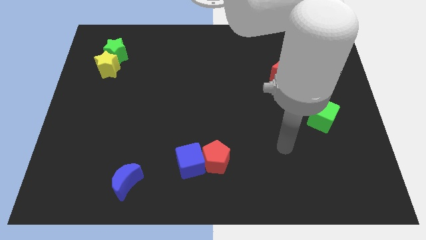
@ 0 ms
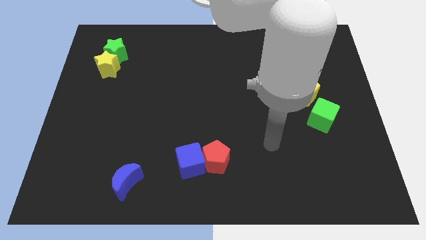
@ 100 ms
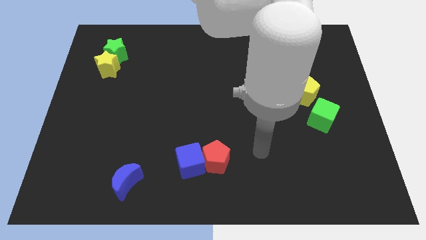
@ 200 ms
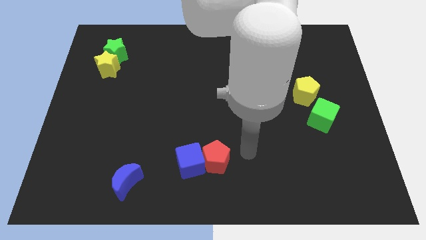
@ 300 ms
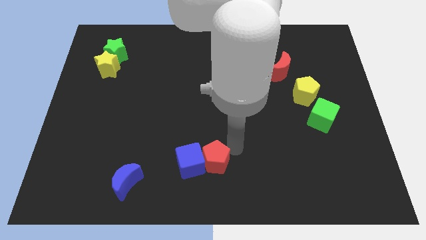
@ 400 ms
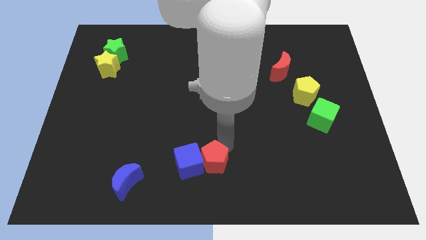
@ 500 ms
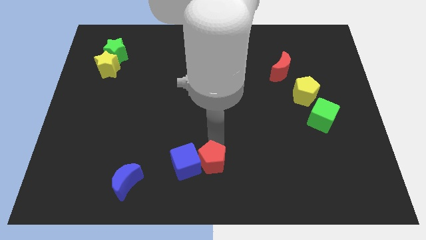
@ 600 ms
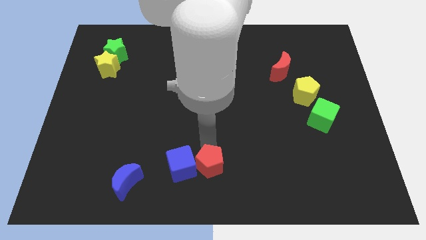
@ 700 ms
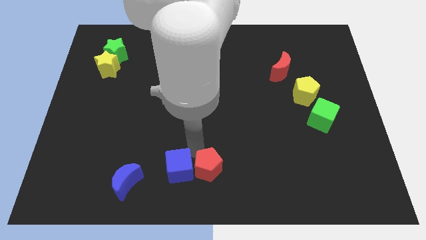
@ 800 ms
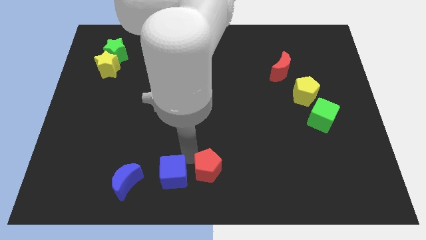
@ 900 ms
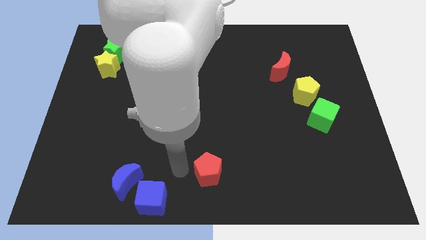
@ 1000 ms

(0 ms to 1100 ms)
separate the red pentagon from the blue cube

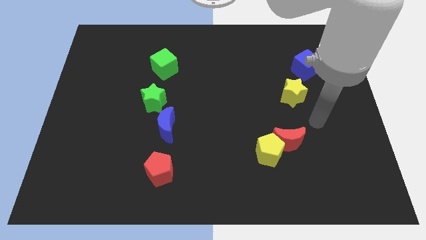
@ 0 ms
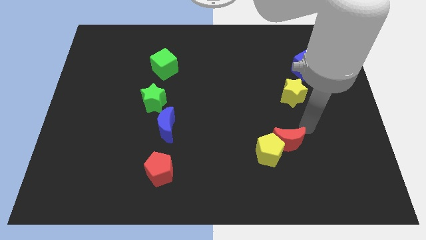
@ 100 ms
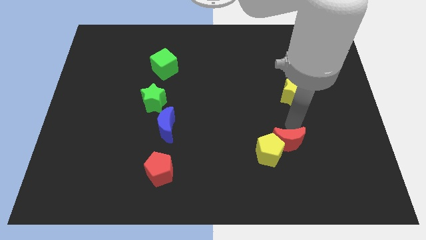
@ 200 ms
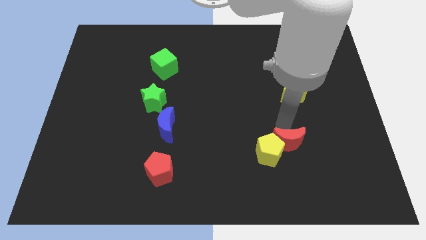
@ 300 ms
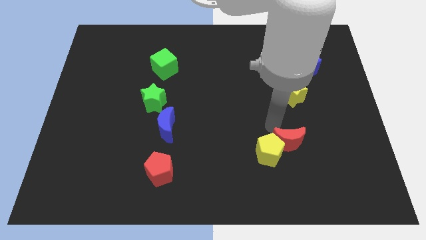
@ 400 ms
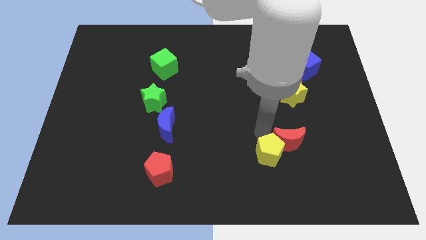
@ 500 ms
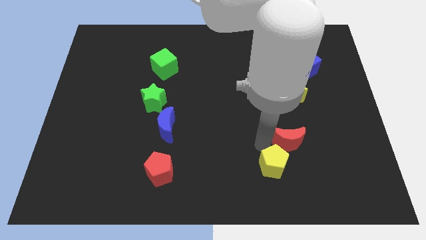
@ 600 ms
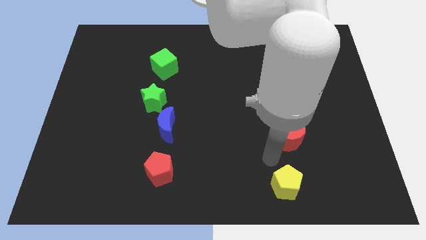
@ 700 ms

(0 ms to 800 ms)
separate the red moon from the yellow pentagon

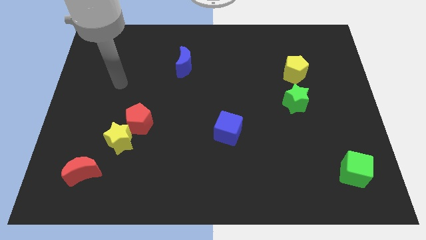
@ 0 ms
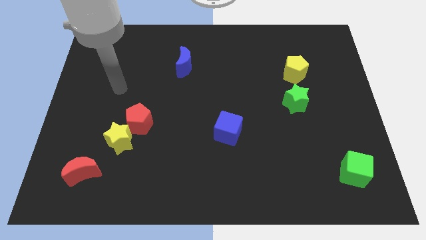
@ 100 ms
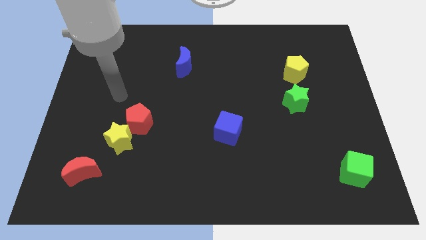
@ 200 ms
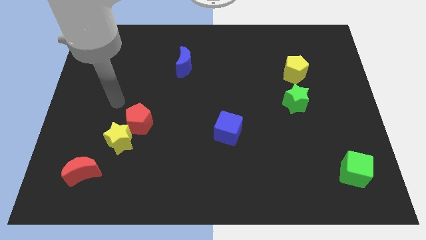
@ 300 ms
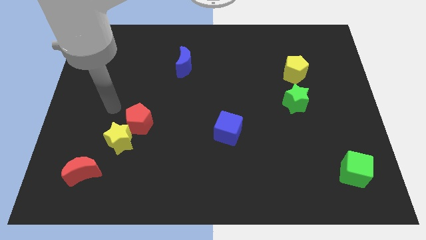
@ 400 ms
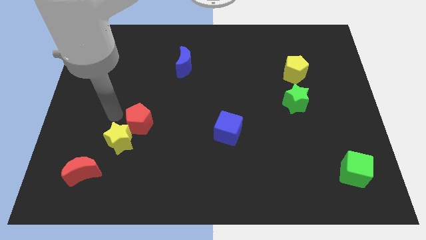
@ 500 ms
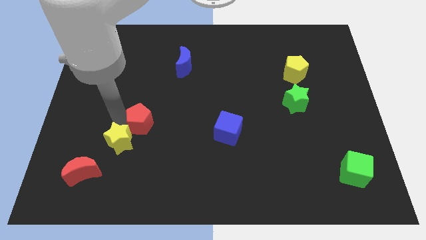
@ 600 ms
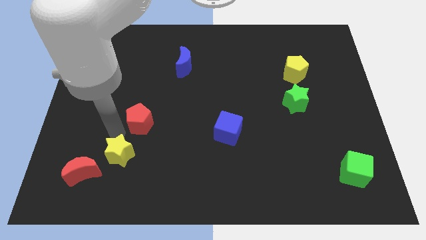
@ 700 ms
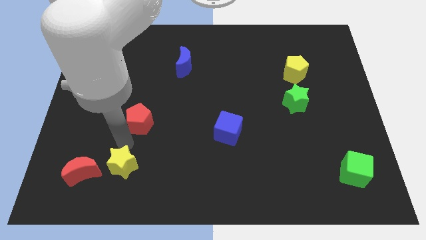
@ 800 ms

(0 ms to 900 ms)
pull the red pentagon apart from the yellow star

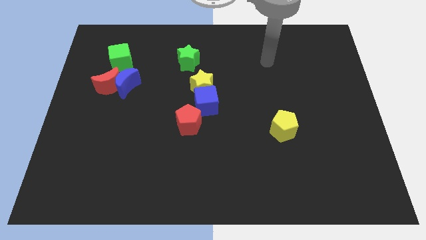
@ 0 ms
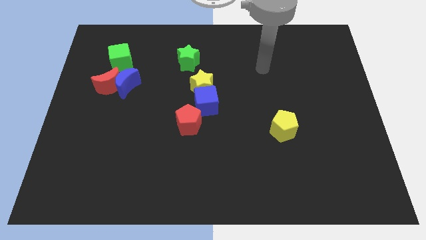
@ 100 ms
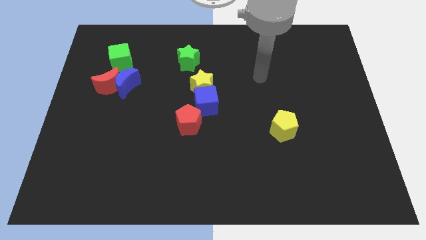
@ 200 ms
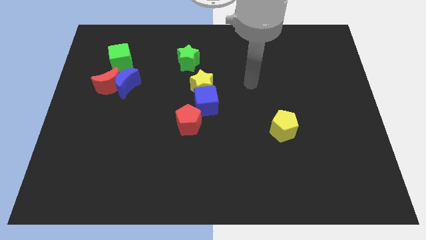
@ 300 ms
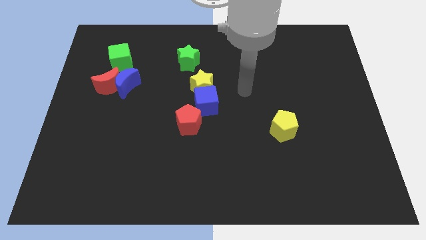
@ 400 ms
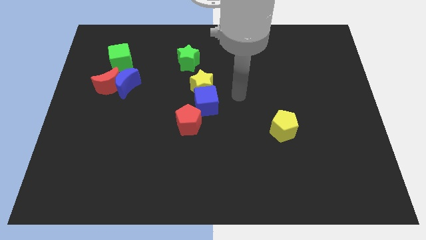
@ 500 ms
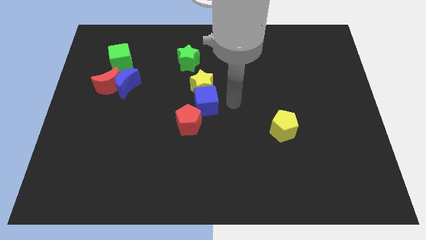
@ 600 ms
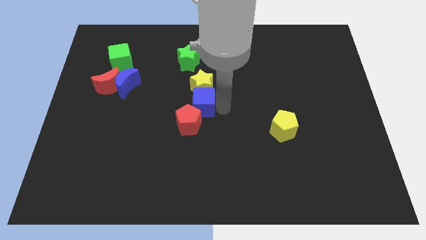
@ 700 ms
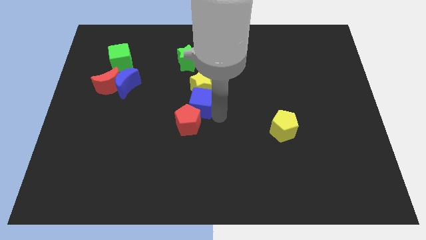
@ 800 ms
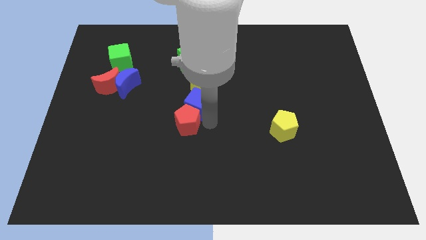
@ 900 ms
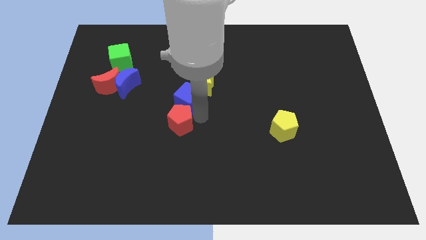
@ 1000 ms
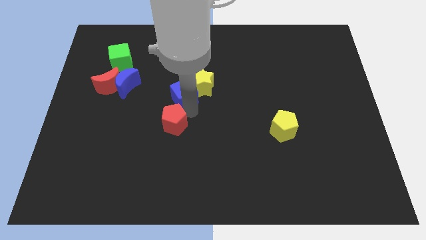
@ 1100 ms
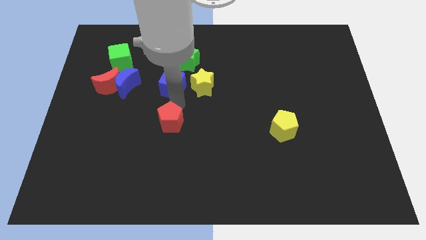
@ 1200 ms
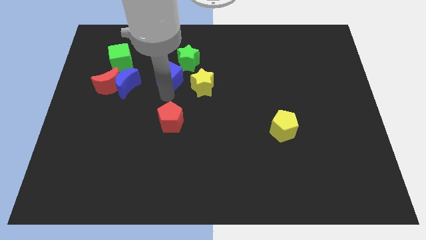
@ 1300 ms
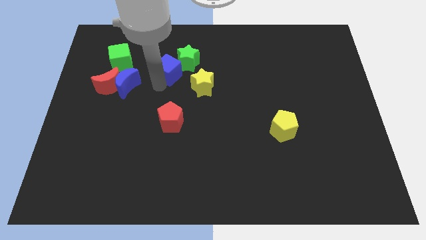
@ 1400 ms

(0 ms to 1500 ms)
pull the blue cube apart from the yellow star and red pentagon

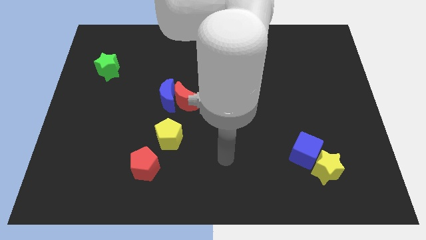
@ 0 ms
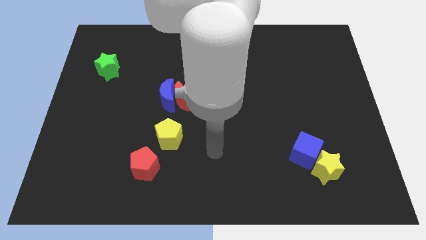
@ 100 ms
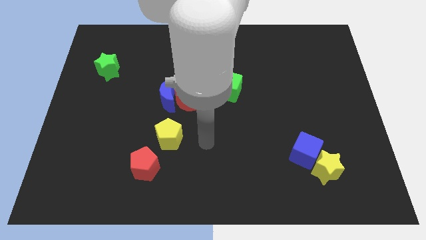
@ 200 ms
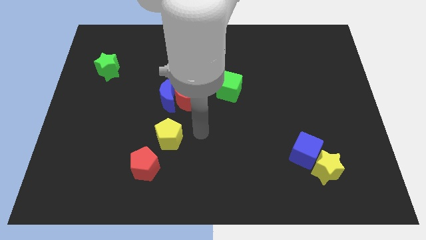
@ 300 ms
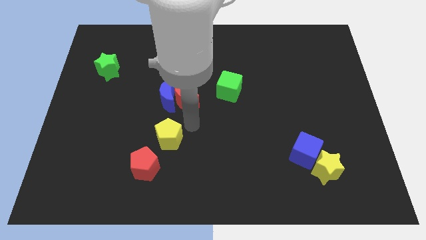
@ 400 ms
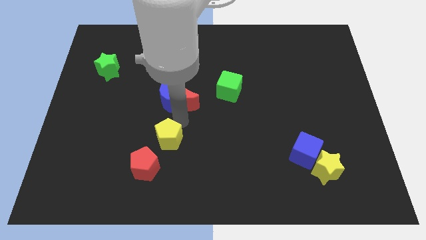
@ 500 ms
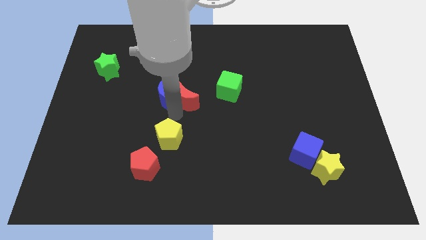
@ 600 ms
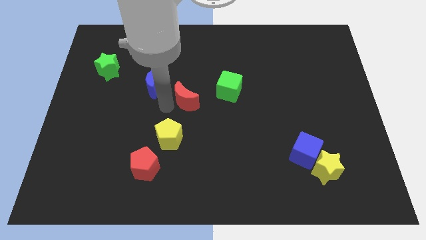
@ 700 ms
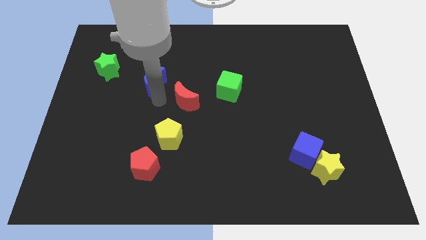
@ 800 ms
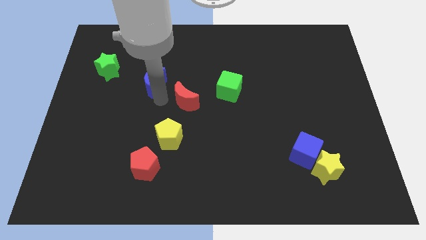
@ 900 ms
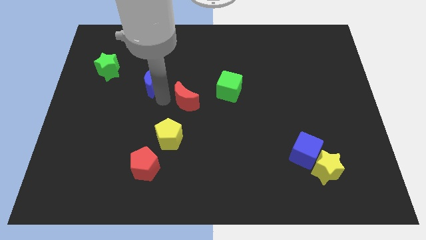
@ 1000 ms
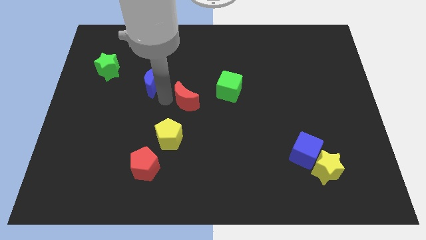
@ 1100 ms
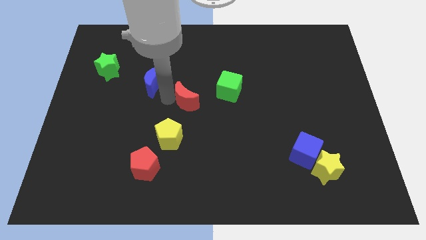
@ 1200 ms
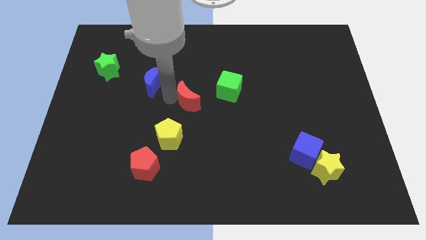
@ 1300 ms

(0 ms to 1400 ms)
pull the red moon apart from the blue moon

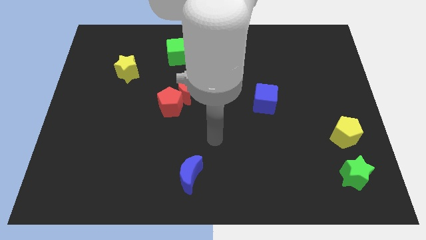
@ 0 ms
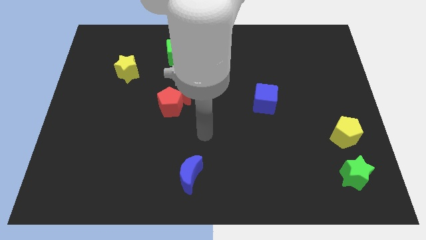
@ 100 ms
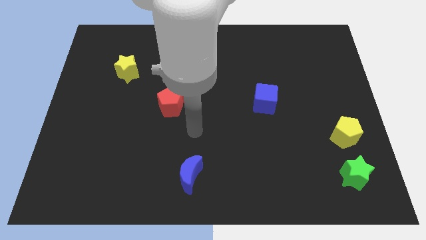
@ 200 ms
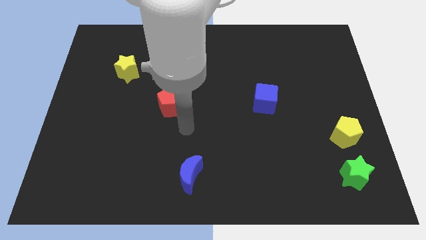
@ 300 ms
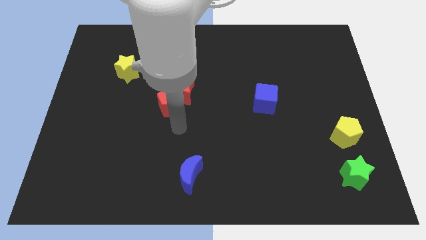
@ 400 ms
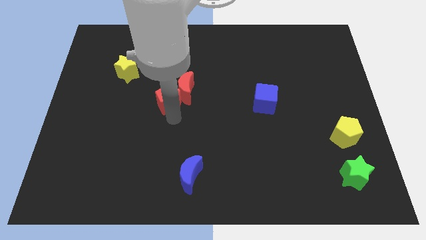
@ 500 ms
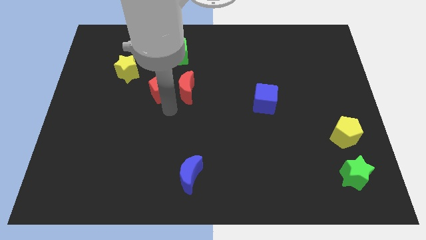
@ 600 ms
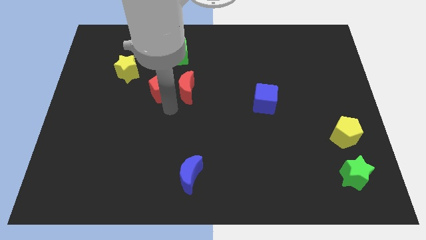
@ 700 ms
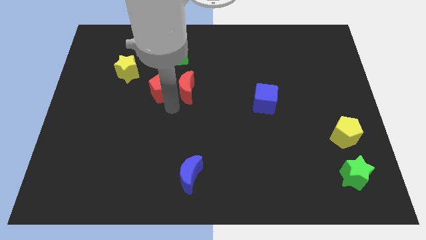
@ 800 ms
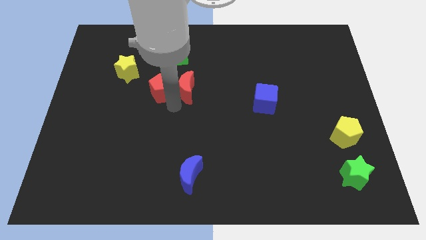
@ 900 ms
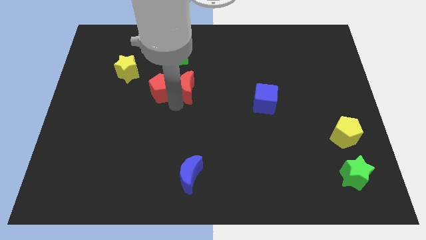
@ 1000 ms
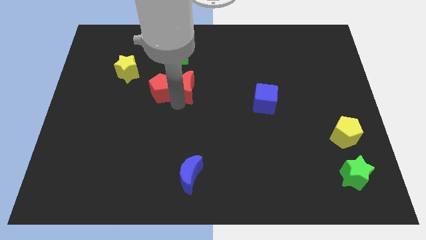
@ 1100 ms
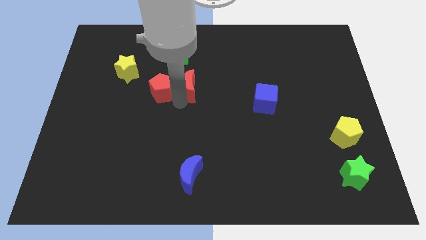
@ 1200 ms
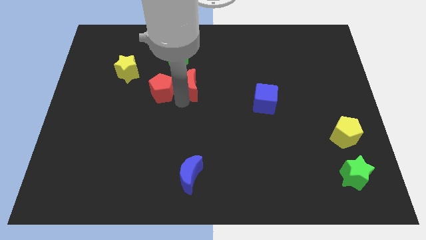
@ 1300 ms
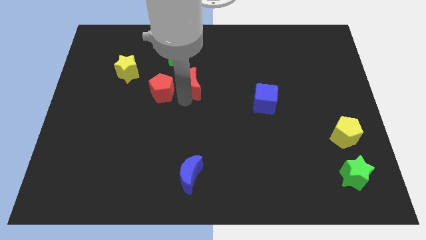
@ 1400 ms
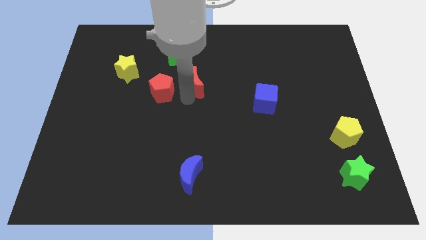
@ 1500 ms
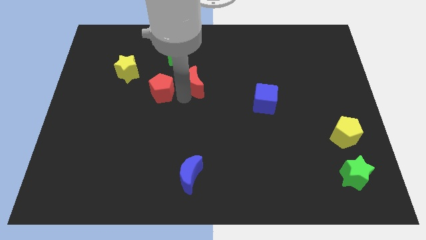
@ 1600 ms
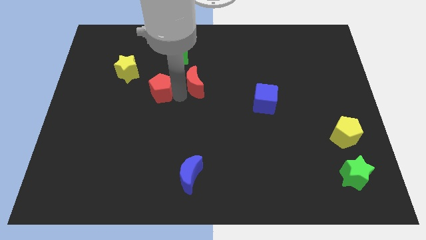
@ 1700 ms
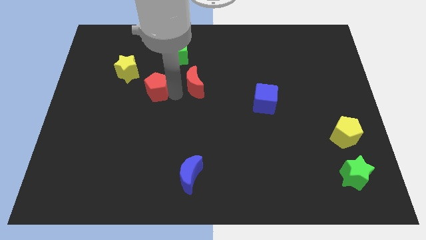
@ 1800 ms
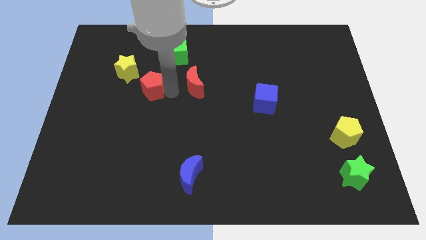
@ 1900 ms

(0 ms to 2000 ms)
move the red moon away from the red pentagon

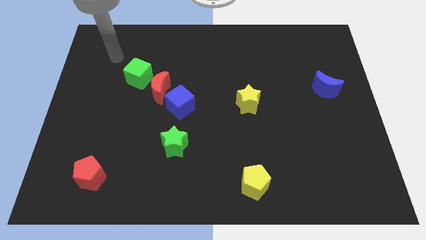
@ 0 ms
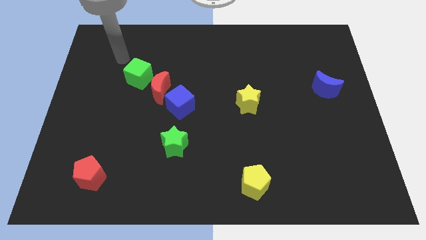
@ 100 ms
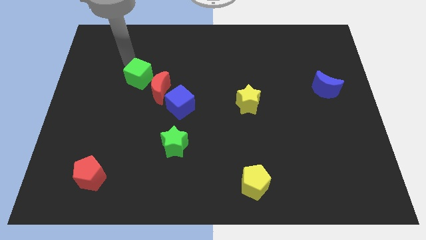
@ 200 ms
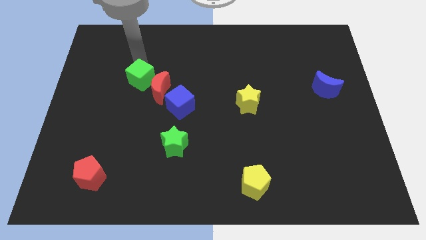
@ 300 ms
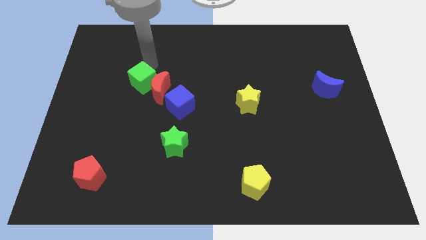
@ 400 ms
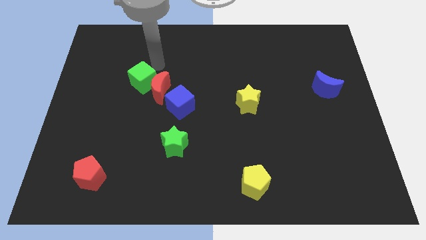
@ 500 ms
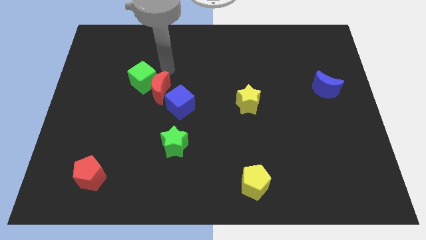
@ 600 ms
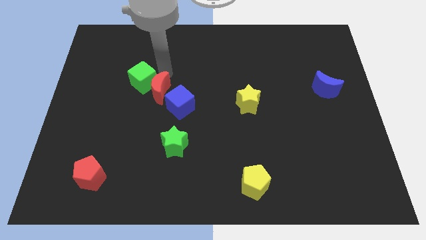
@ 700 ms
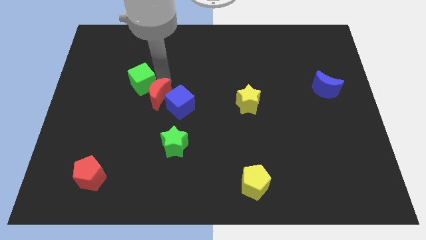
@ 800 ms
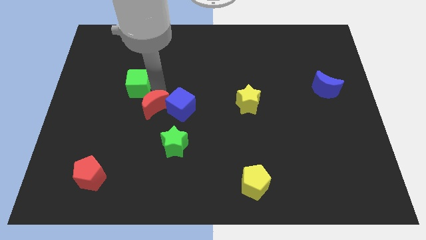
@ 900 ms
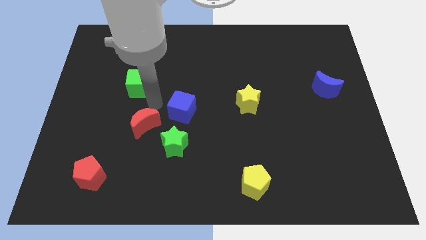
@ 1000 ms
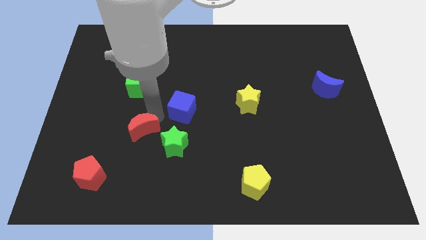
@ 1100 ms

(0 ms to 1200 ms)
pull the blue cube apart from the red moon

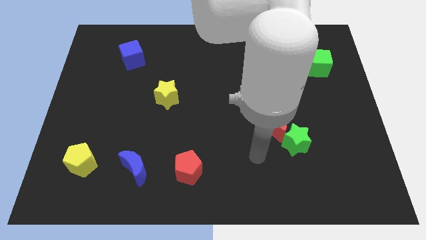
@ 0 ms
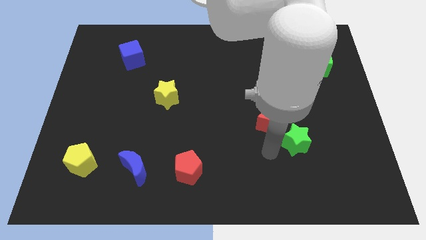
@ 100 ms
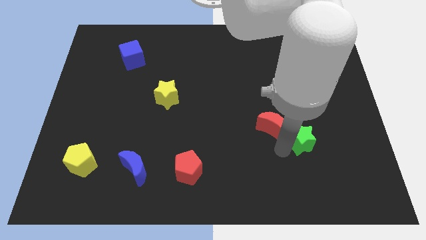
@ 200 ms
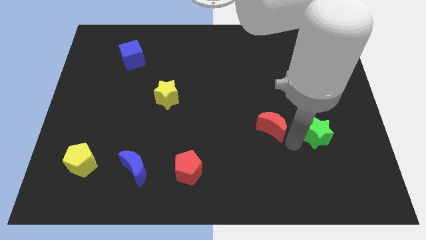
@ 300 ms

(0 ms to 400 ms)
pull the red moon apart from the green star

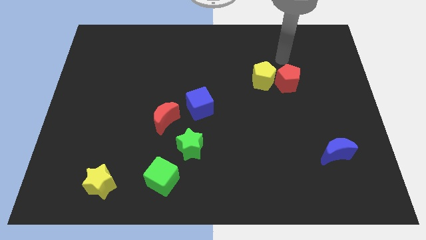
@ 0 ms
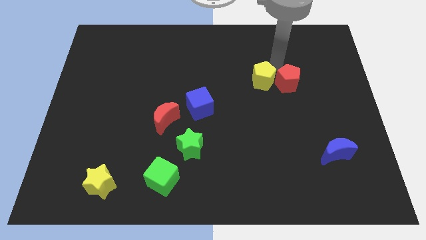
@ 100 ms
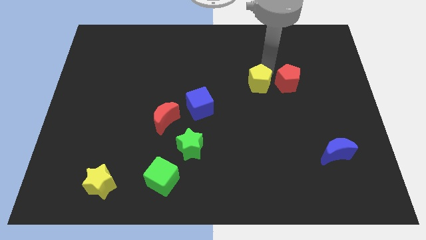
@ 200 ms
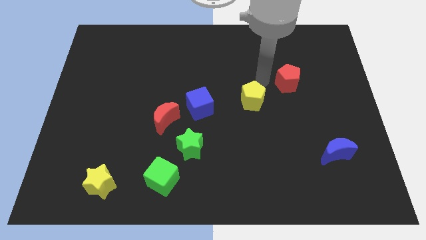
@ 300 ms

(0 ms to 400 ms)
separate the red pentagon from the yellow pentagon
